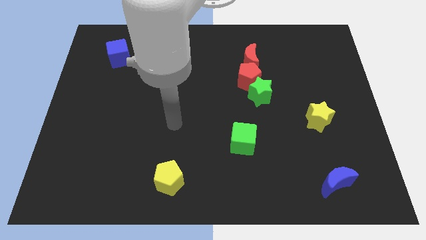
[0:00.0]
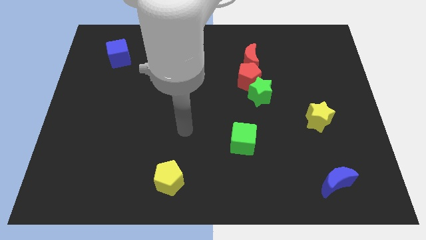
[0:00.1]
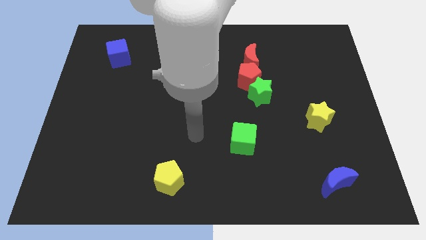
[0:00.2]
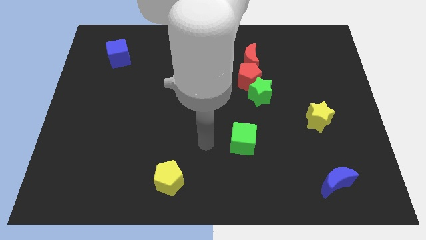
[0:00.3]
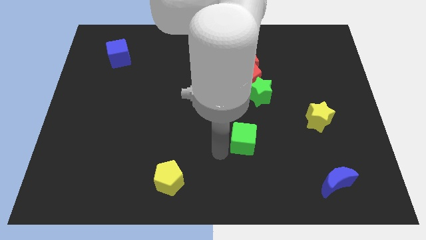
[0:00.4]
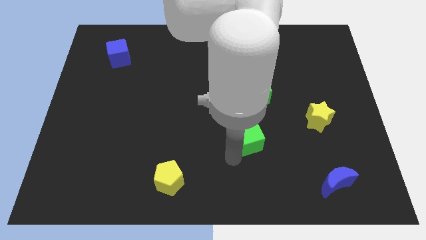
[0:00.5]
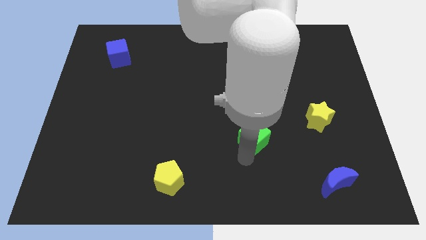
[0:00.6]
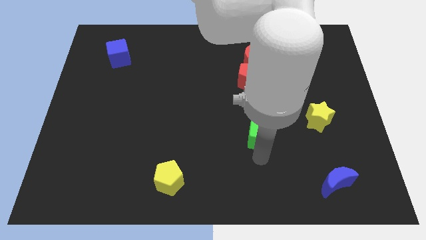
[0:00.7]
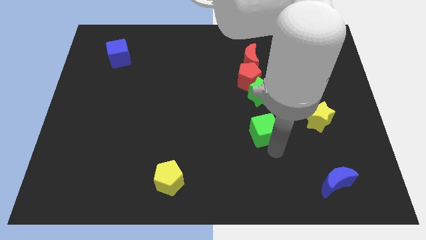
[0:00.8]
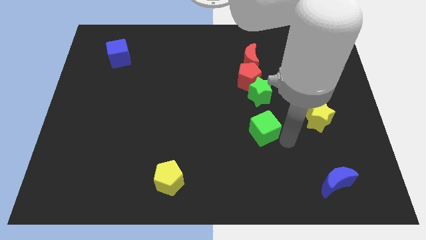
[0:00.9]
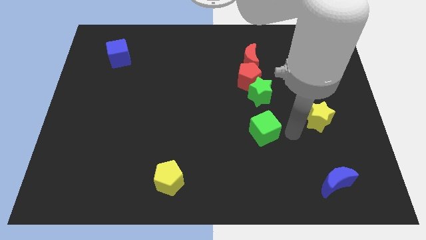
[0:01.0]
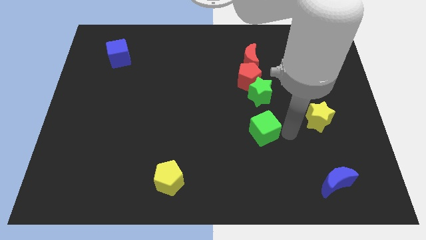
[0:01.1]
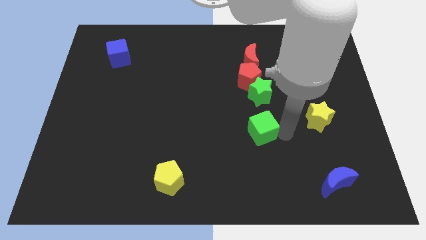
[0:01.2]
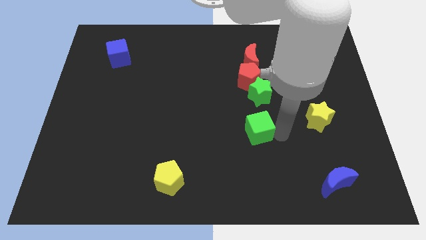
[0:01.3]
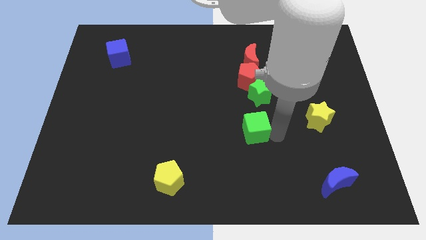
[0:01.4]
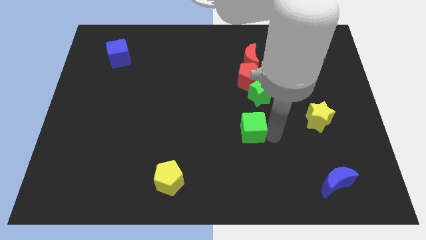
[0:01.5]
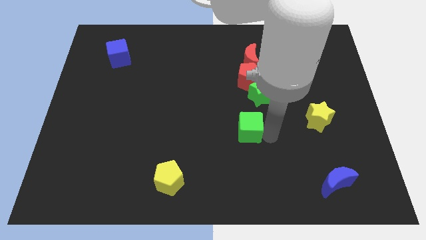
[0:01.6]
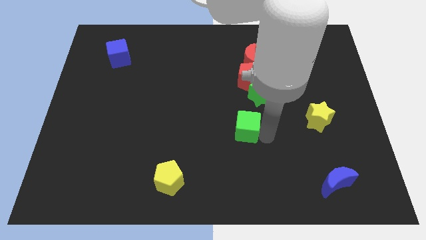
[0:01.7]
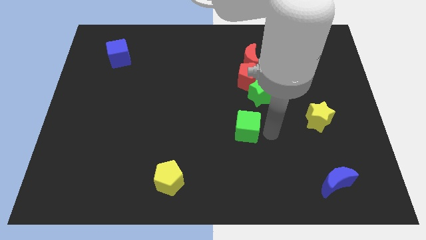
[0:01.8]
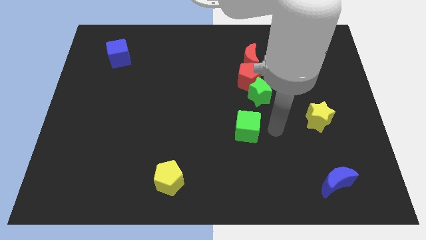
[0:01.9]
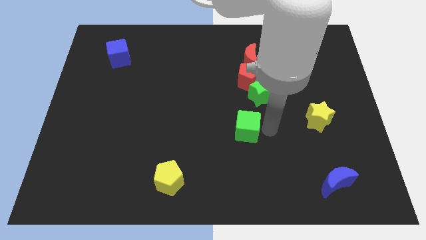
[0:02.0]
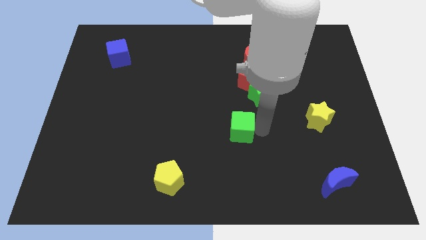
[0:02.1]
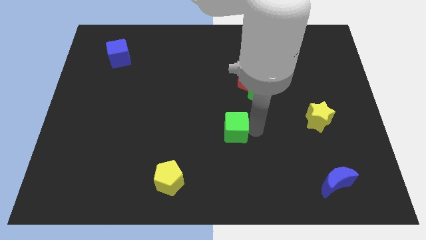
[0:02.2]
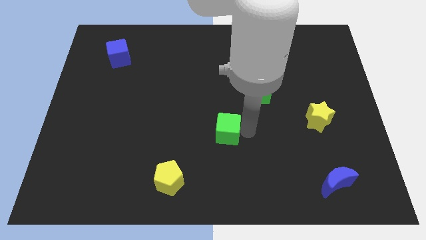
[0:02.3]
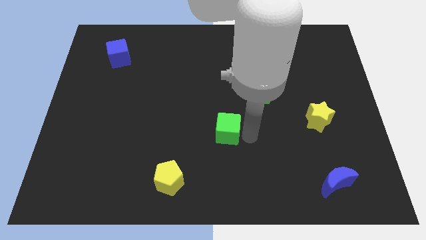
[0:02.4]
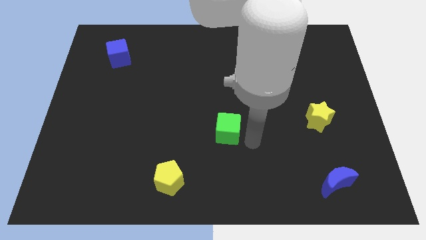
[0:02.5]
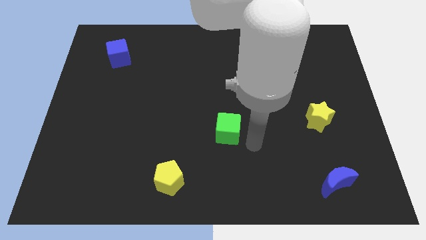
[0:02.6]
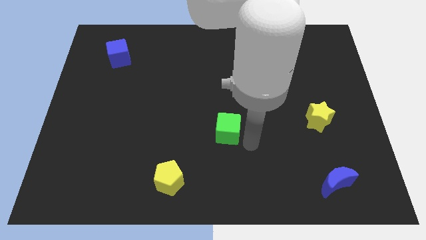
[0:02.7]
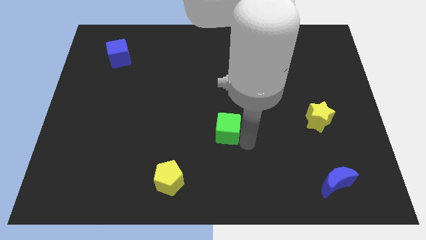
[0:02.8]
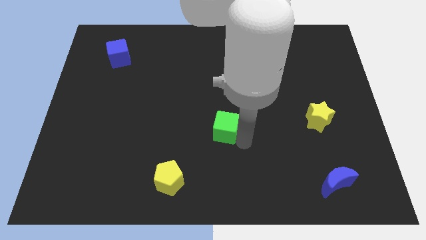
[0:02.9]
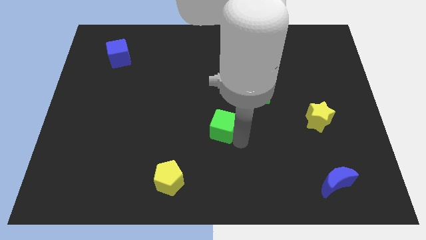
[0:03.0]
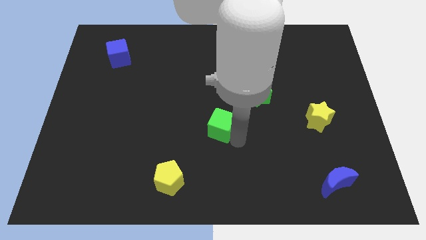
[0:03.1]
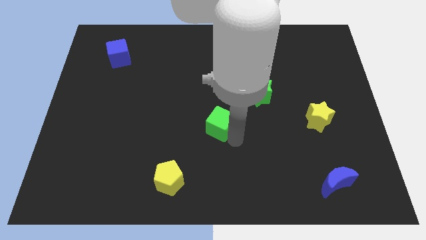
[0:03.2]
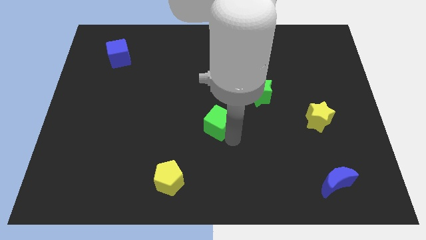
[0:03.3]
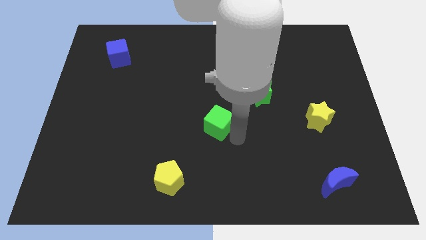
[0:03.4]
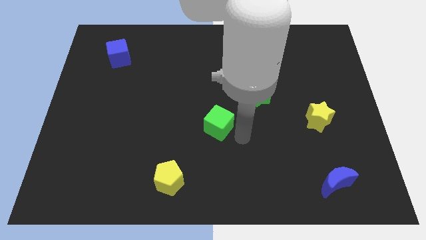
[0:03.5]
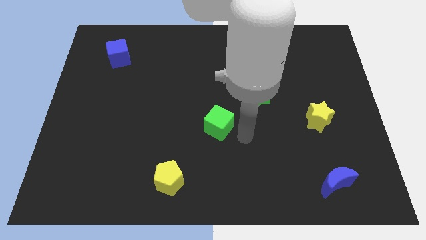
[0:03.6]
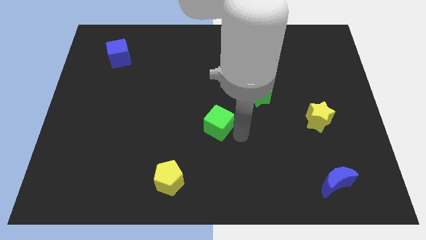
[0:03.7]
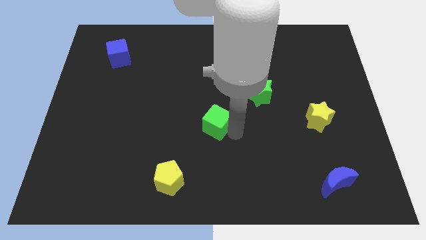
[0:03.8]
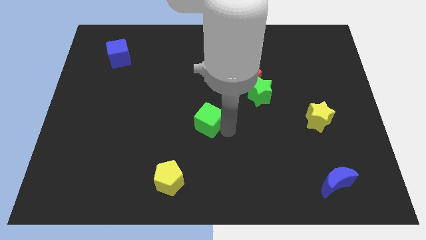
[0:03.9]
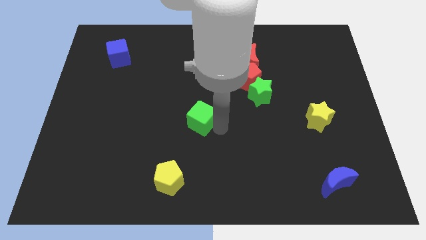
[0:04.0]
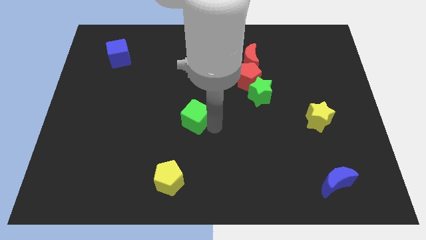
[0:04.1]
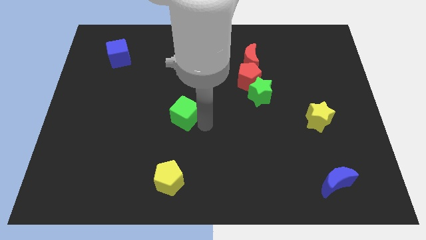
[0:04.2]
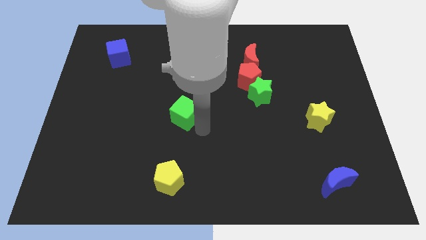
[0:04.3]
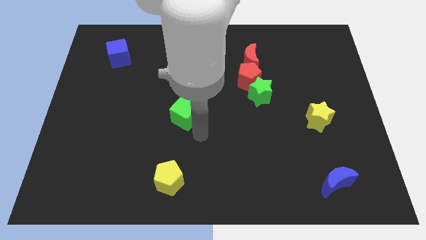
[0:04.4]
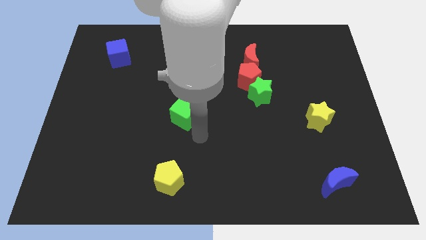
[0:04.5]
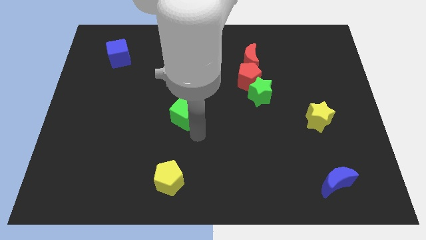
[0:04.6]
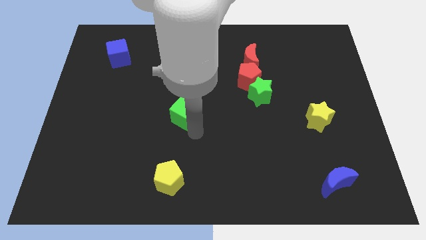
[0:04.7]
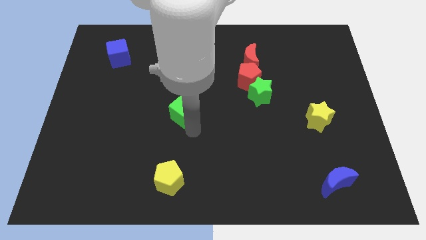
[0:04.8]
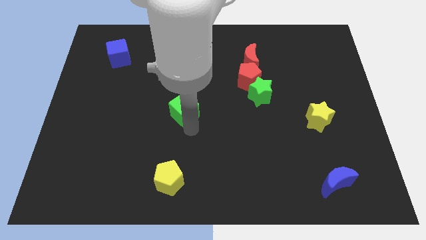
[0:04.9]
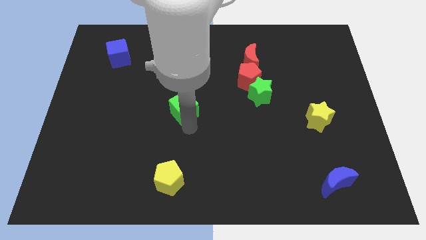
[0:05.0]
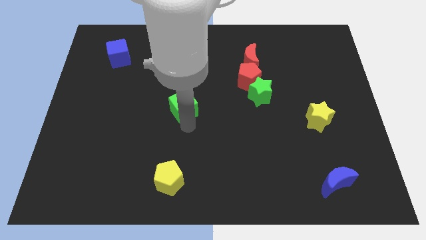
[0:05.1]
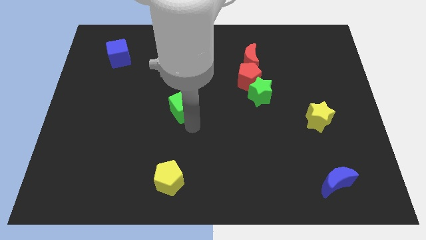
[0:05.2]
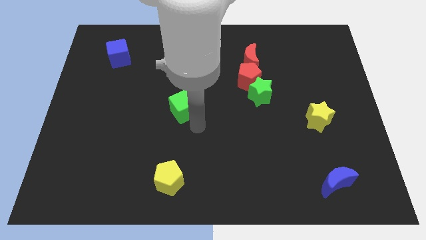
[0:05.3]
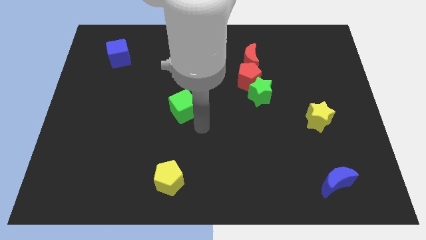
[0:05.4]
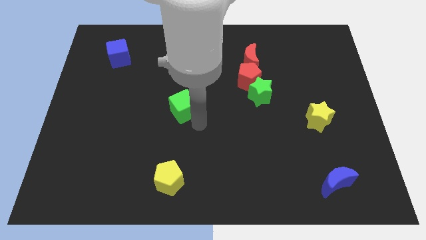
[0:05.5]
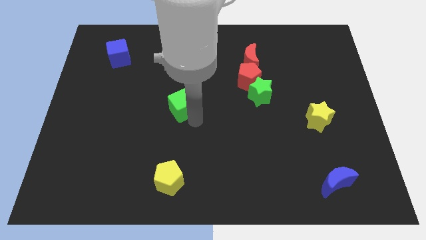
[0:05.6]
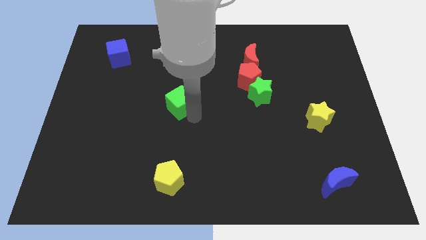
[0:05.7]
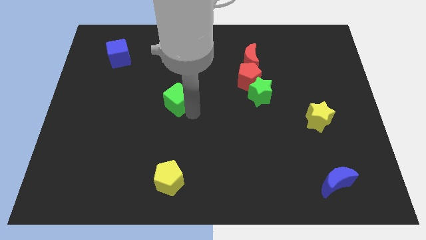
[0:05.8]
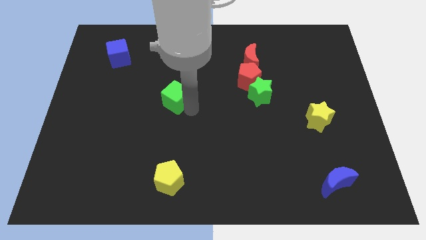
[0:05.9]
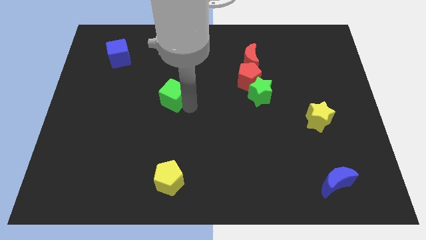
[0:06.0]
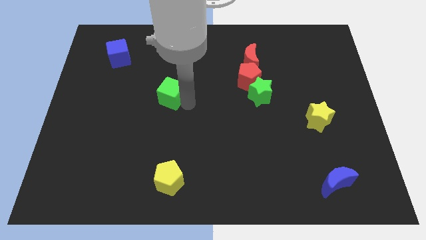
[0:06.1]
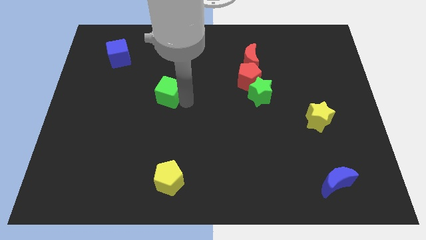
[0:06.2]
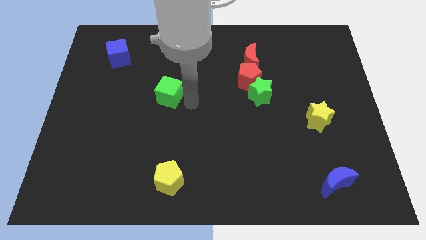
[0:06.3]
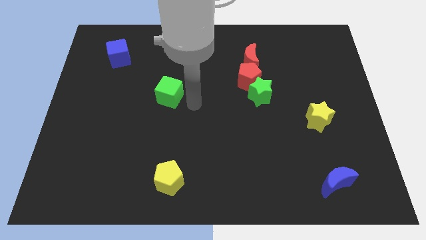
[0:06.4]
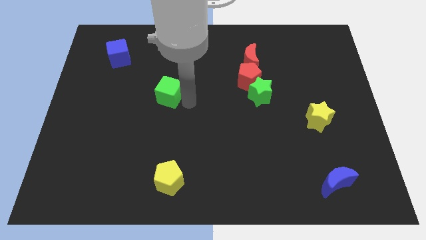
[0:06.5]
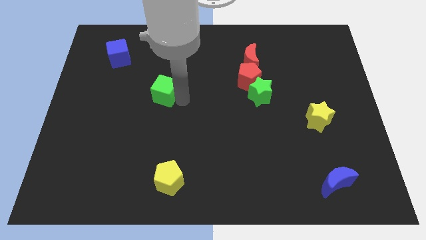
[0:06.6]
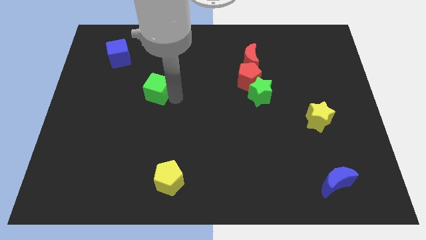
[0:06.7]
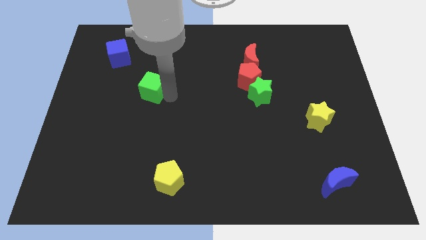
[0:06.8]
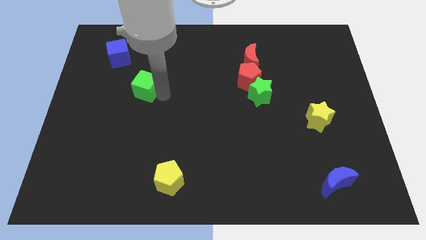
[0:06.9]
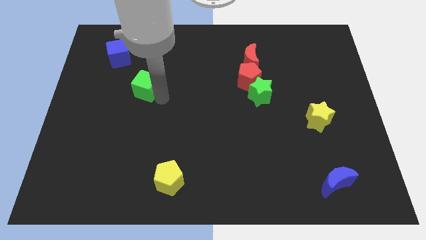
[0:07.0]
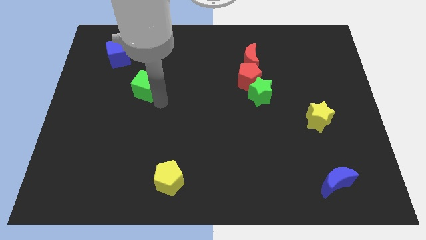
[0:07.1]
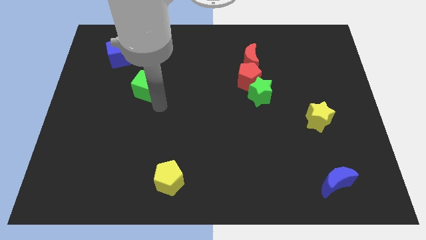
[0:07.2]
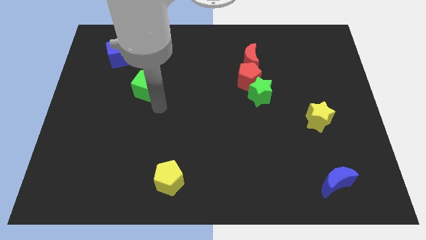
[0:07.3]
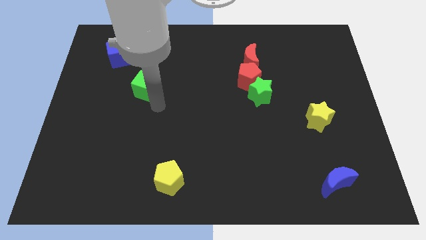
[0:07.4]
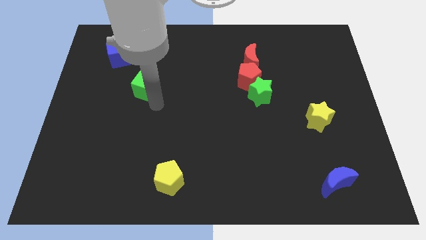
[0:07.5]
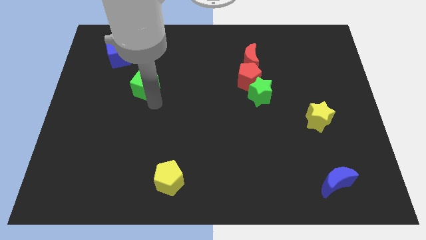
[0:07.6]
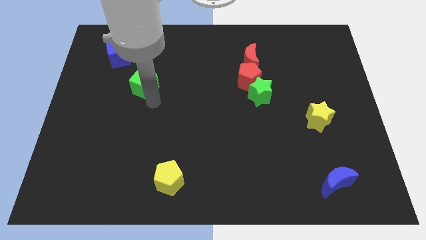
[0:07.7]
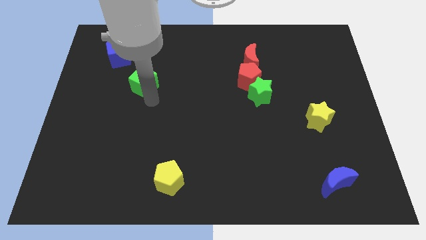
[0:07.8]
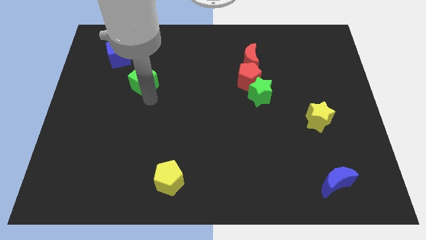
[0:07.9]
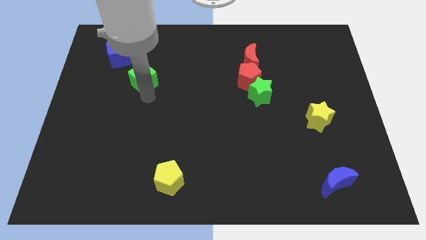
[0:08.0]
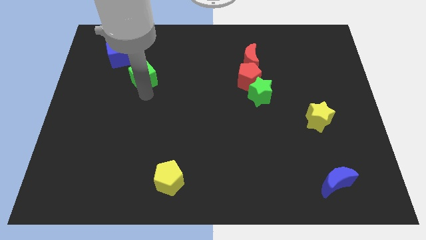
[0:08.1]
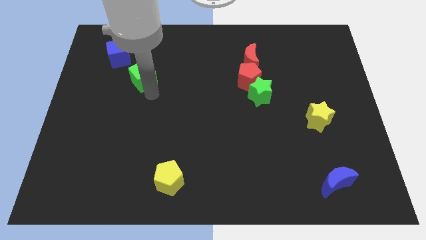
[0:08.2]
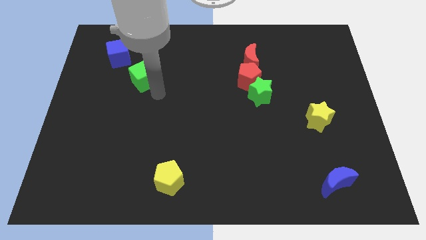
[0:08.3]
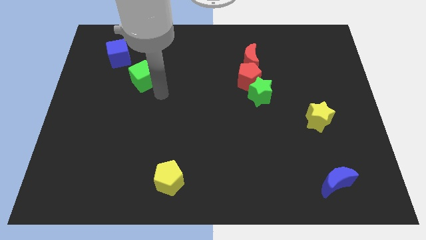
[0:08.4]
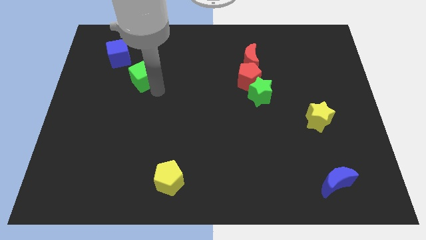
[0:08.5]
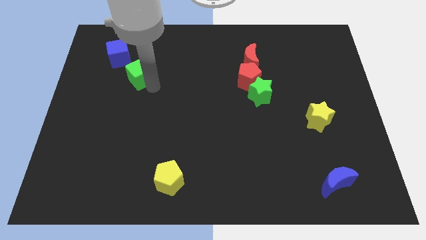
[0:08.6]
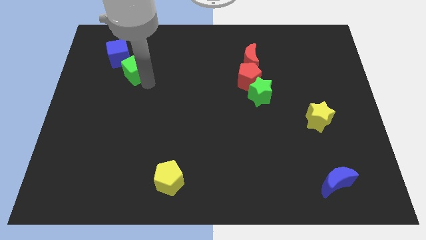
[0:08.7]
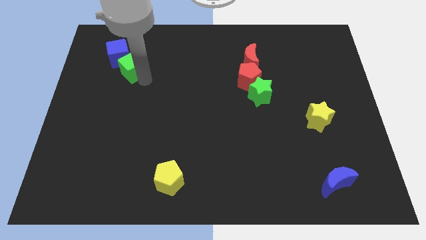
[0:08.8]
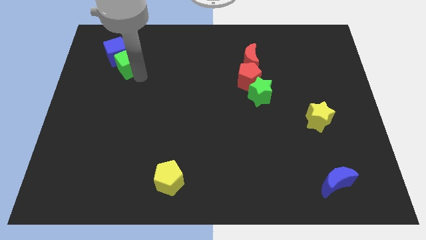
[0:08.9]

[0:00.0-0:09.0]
push the green cube next to the blue cube
